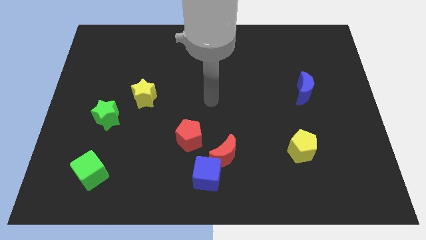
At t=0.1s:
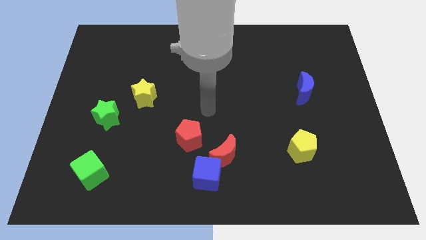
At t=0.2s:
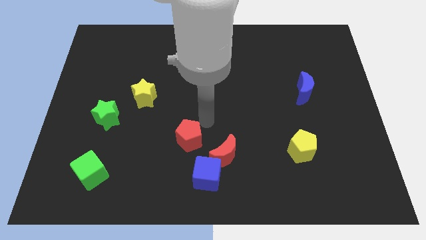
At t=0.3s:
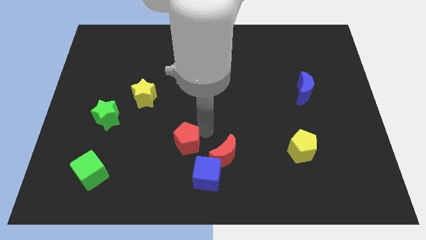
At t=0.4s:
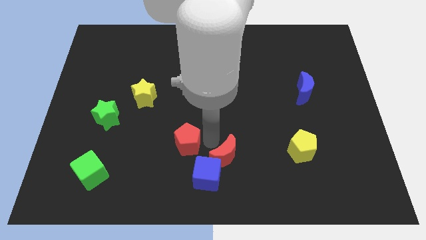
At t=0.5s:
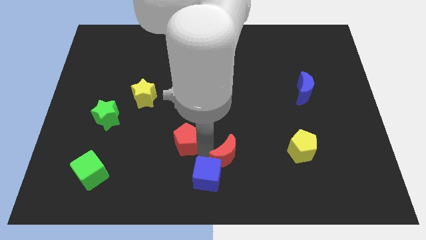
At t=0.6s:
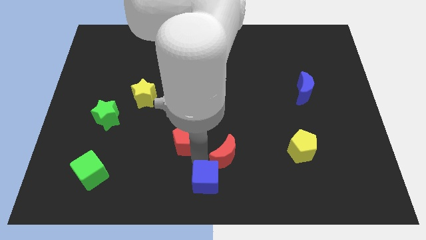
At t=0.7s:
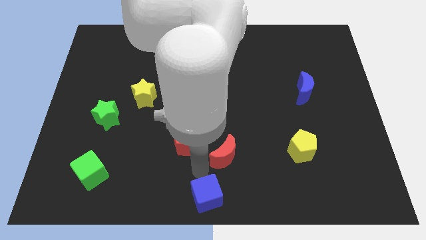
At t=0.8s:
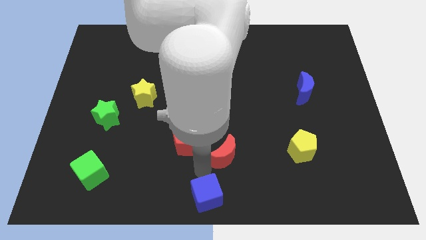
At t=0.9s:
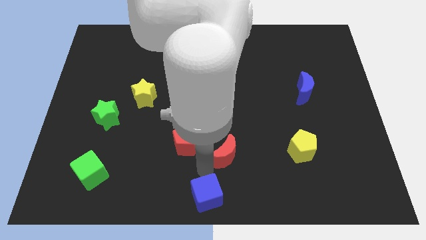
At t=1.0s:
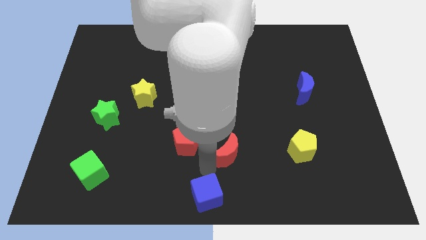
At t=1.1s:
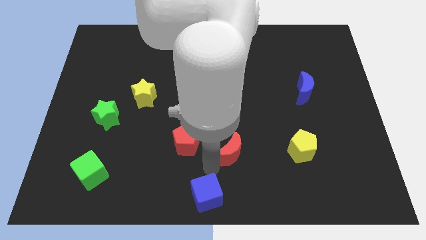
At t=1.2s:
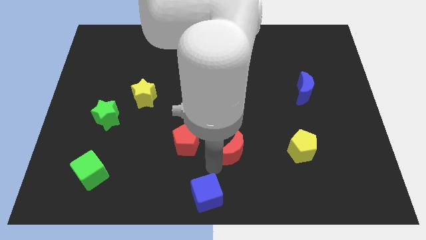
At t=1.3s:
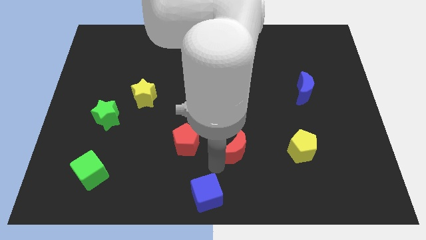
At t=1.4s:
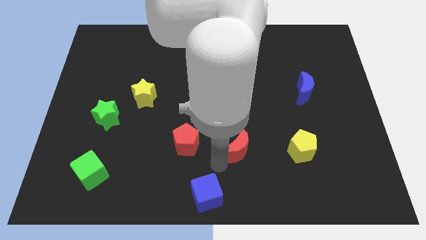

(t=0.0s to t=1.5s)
move the red moon away from the blue cube and red pentagon

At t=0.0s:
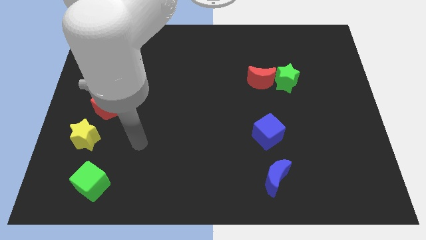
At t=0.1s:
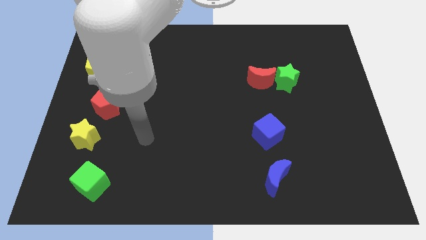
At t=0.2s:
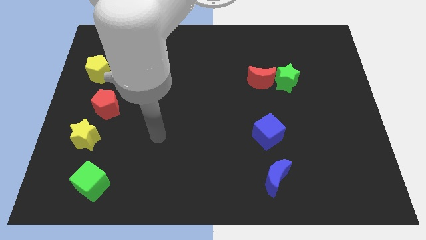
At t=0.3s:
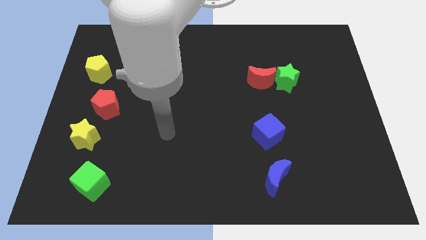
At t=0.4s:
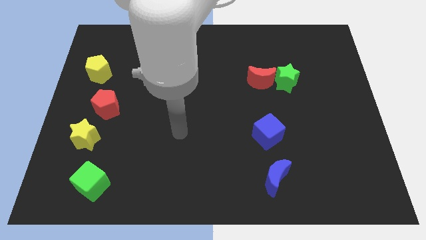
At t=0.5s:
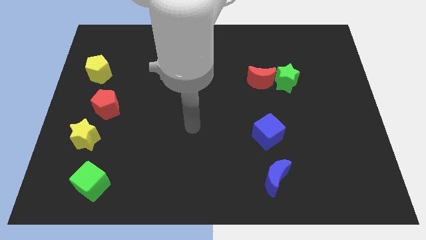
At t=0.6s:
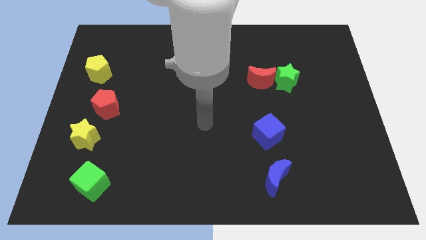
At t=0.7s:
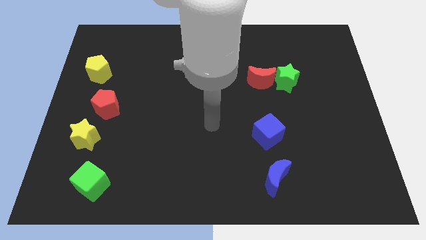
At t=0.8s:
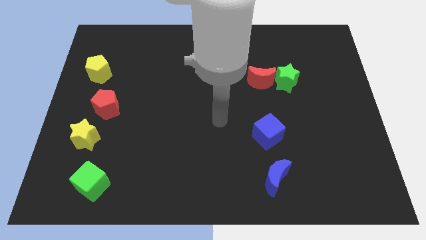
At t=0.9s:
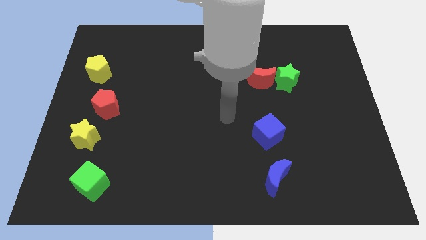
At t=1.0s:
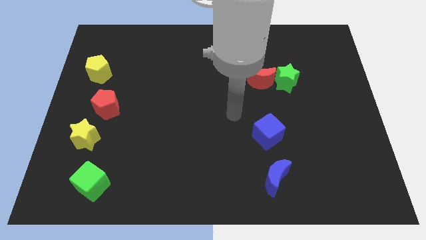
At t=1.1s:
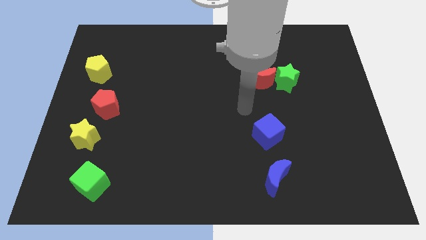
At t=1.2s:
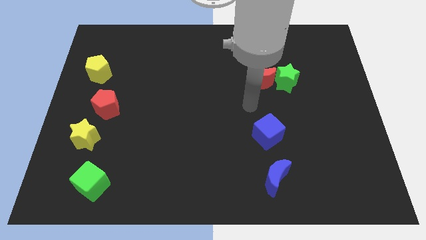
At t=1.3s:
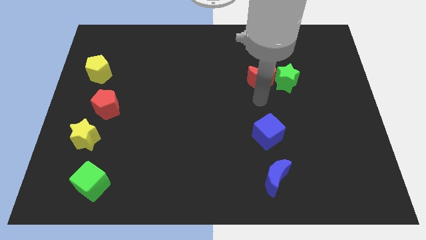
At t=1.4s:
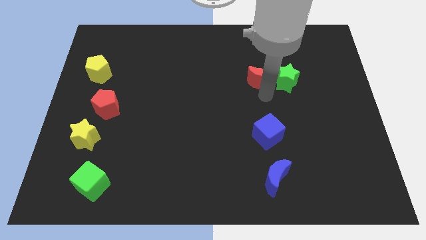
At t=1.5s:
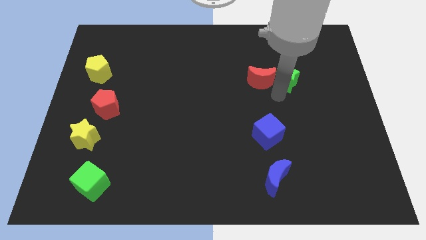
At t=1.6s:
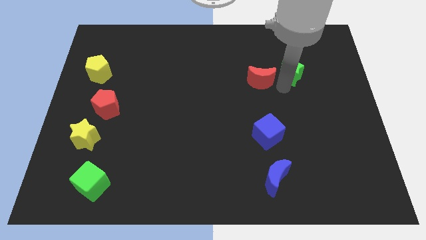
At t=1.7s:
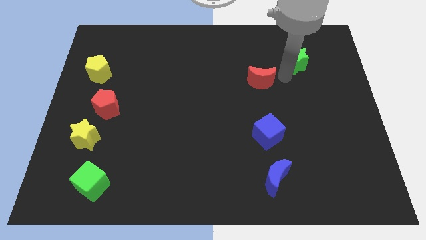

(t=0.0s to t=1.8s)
pull the red moon apart from the green star

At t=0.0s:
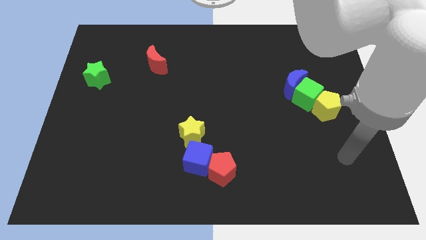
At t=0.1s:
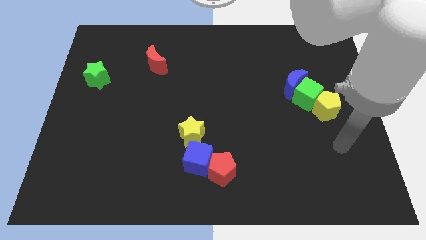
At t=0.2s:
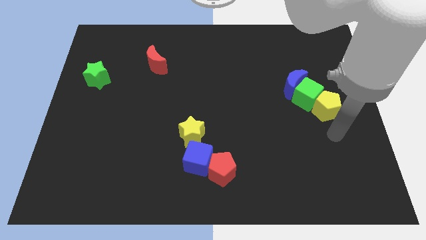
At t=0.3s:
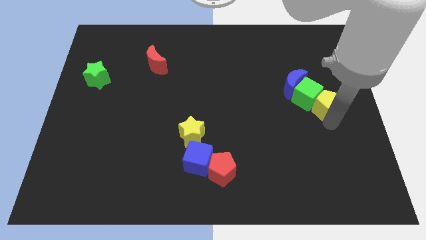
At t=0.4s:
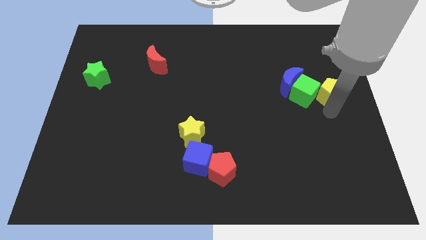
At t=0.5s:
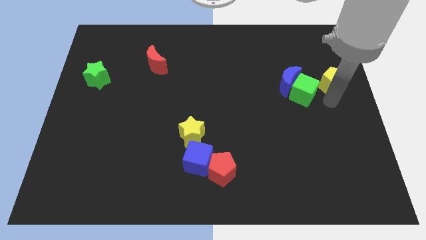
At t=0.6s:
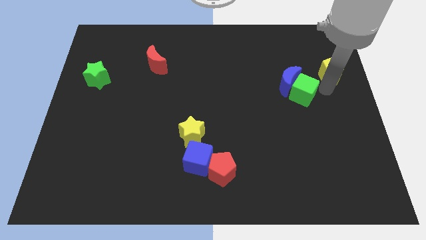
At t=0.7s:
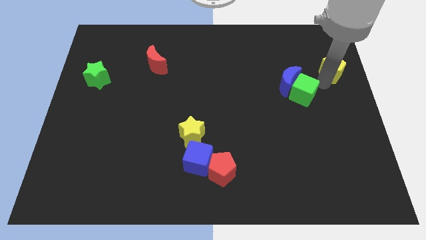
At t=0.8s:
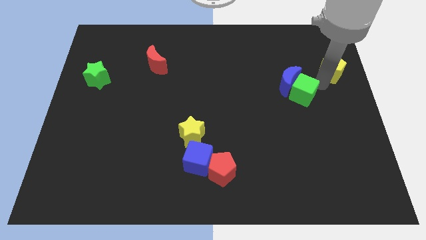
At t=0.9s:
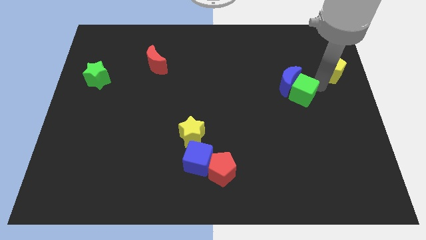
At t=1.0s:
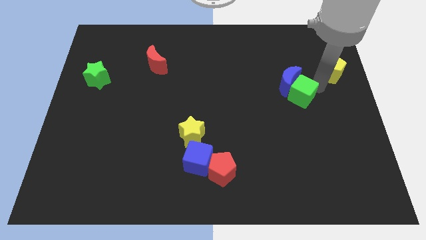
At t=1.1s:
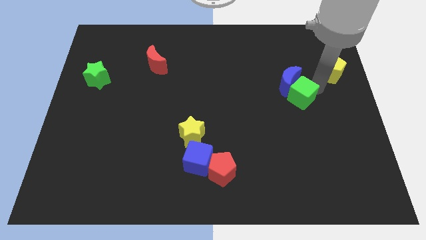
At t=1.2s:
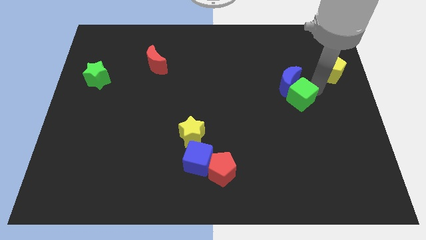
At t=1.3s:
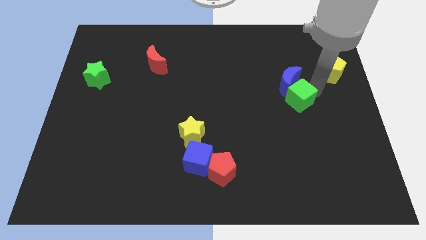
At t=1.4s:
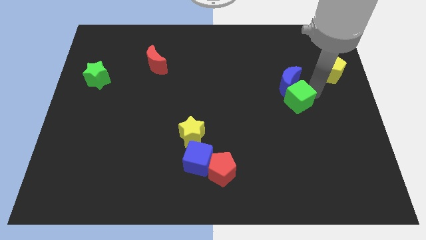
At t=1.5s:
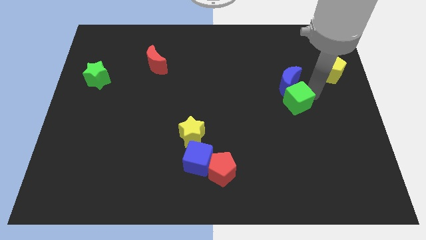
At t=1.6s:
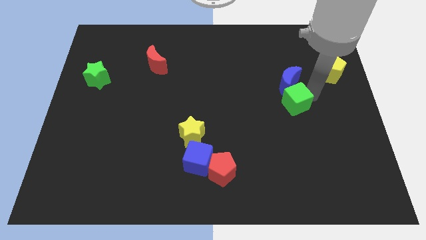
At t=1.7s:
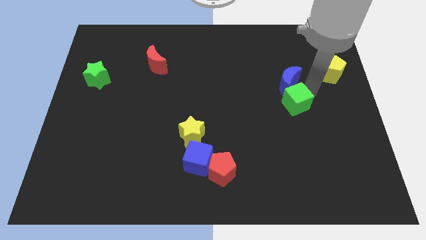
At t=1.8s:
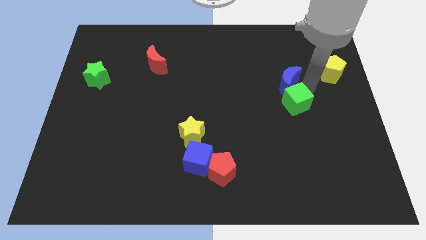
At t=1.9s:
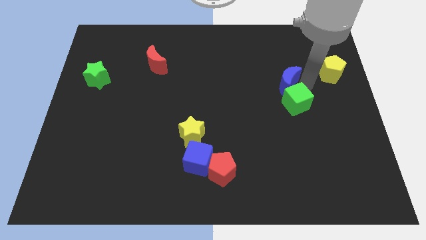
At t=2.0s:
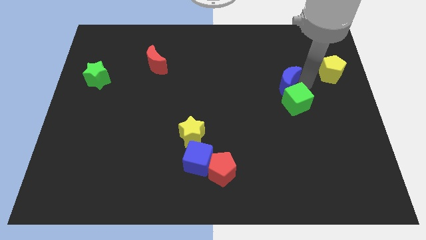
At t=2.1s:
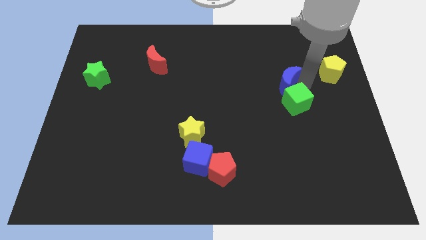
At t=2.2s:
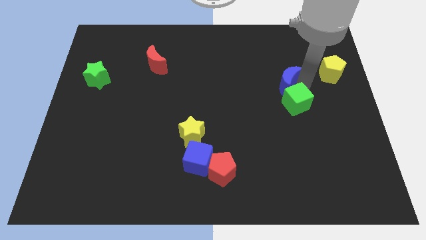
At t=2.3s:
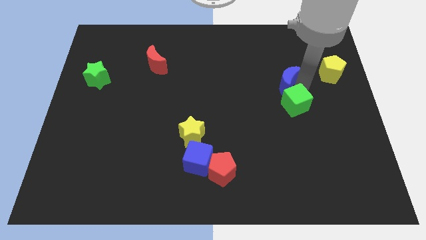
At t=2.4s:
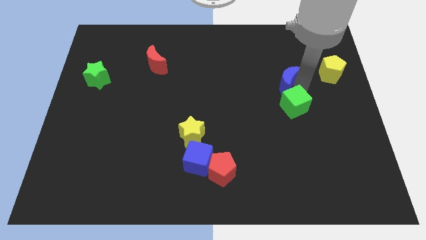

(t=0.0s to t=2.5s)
move the green cube away from the blue moon and yellow pentagon

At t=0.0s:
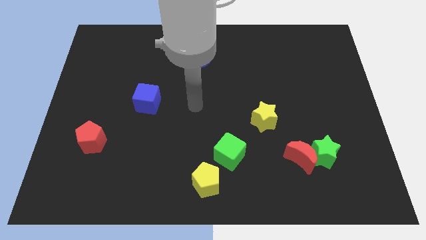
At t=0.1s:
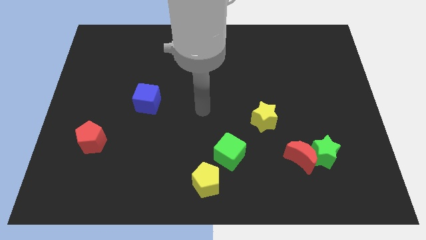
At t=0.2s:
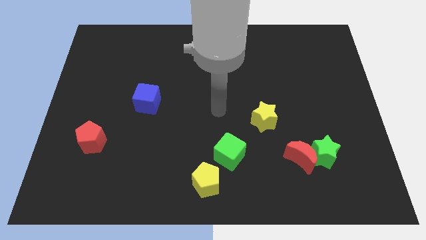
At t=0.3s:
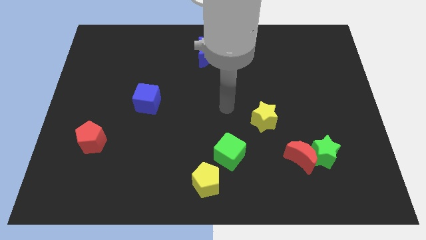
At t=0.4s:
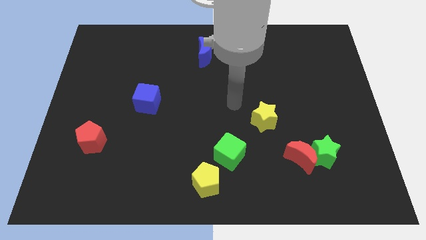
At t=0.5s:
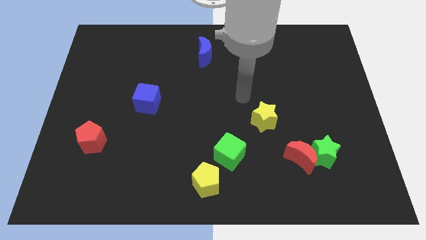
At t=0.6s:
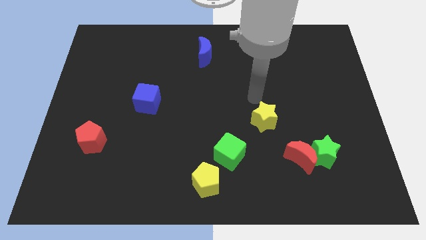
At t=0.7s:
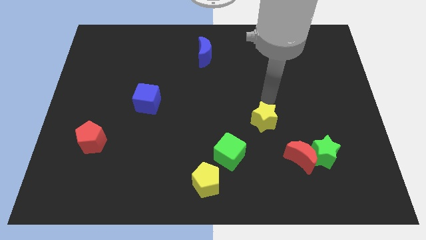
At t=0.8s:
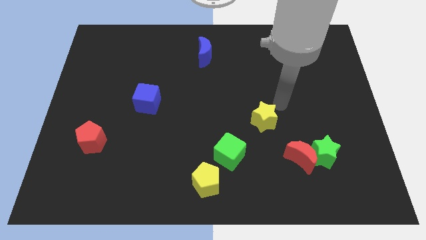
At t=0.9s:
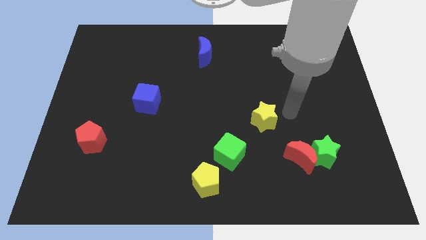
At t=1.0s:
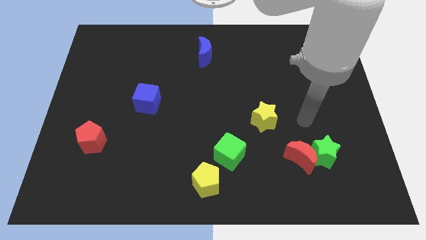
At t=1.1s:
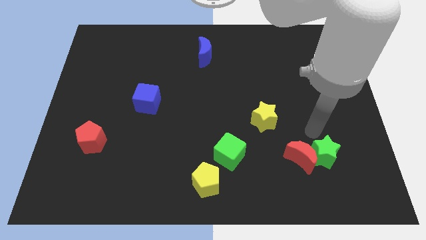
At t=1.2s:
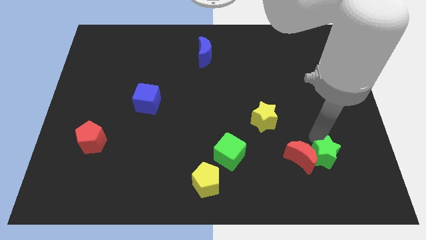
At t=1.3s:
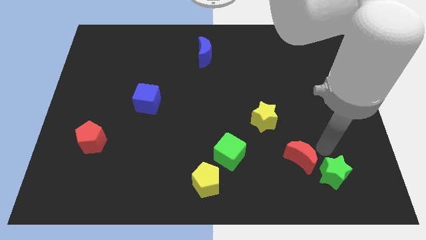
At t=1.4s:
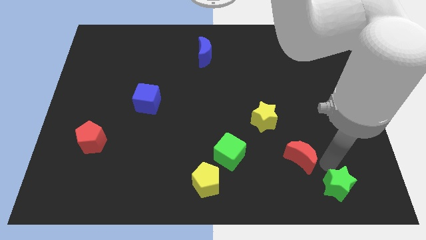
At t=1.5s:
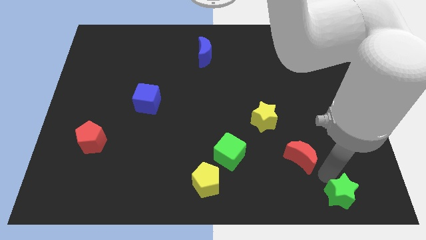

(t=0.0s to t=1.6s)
move the red moon away from the green star

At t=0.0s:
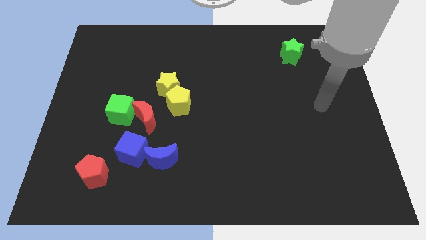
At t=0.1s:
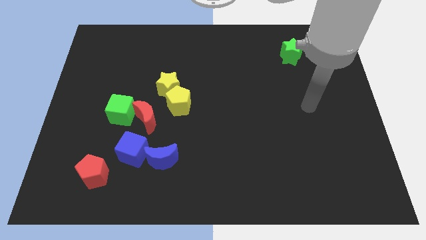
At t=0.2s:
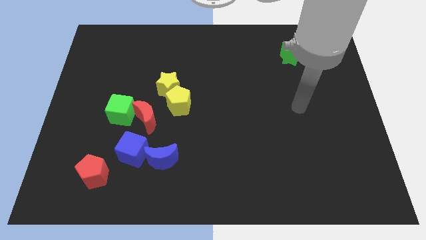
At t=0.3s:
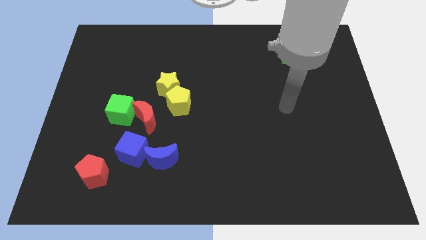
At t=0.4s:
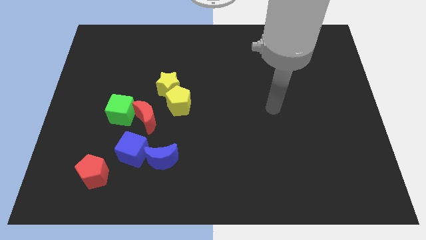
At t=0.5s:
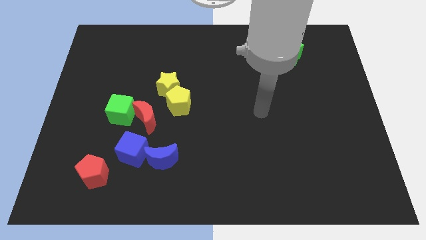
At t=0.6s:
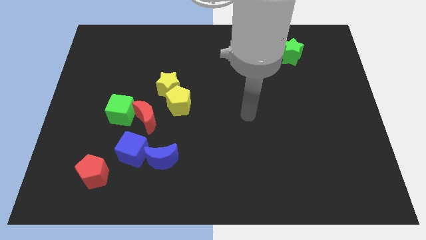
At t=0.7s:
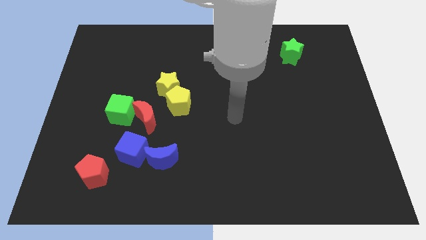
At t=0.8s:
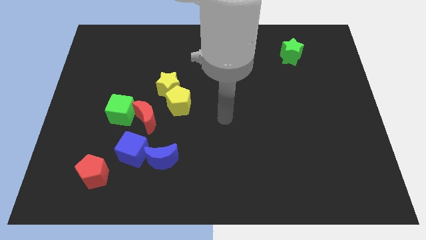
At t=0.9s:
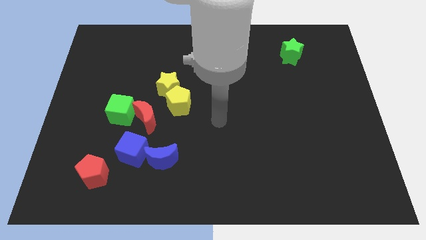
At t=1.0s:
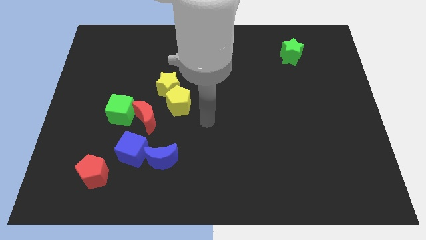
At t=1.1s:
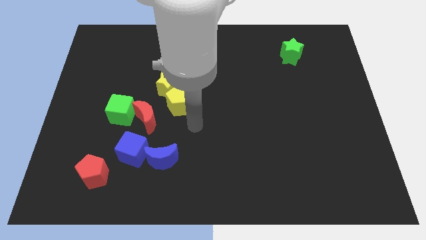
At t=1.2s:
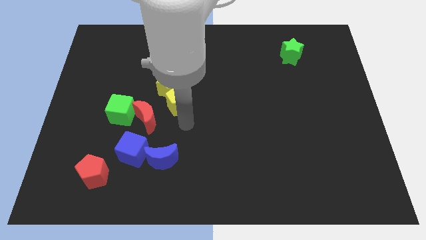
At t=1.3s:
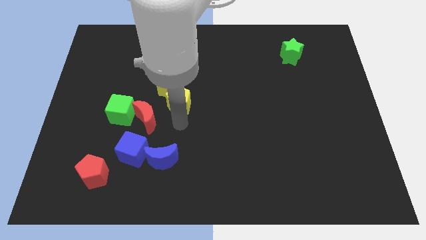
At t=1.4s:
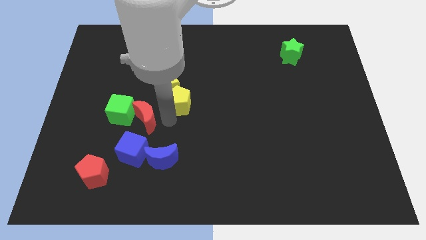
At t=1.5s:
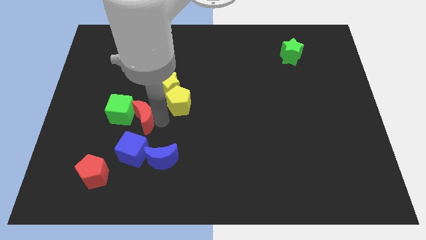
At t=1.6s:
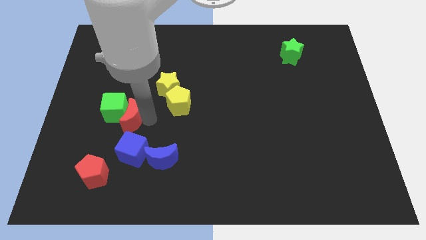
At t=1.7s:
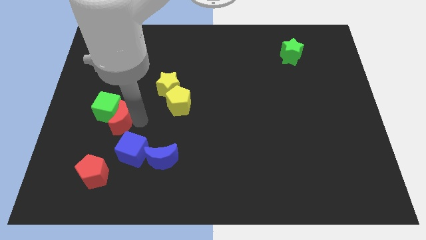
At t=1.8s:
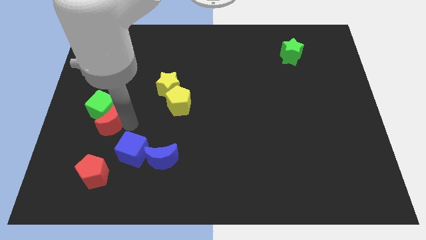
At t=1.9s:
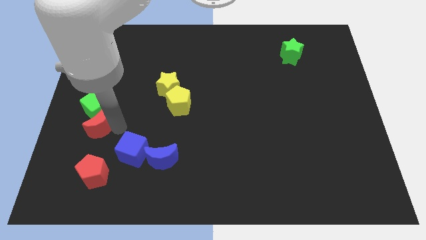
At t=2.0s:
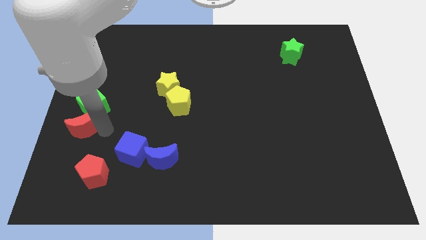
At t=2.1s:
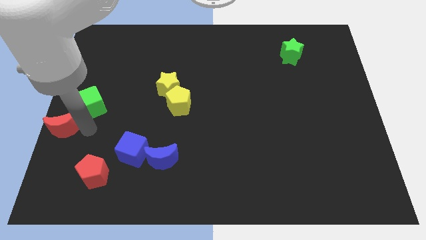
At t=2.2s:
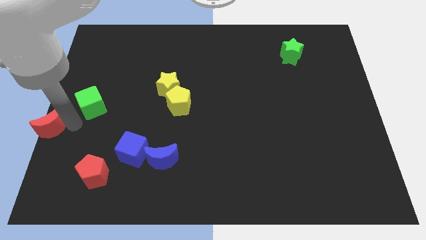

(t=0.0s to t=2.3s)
pull the green cube apart from the red moon
